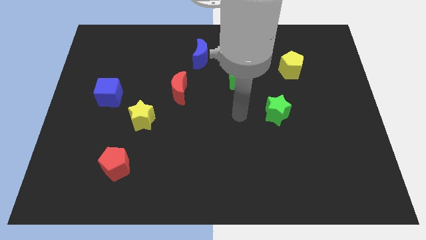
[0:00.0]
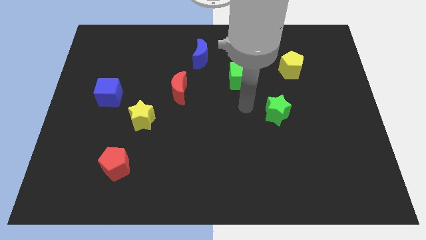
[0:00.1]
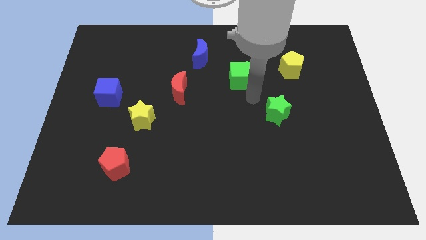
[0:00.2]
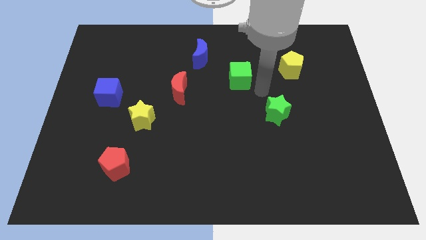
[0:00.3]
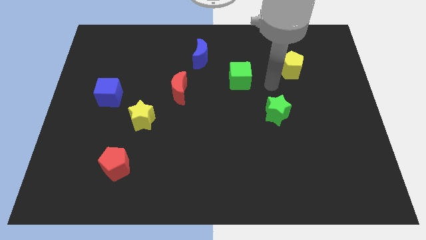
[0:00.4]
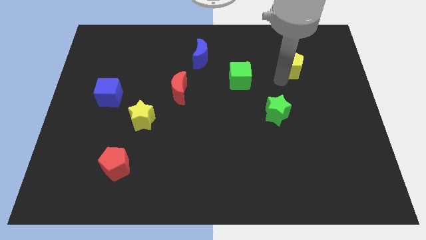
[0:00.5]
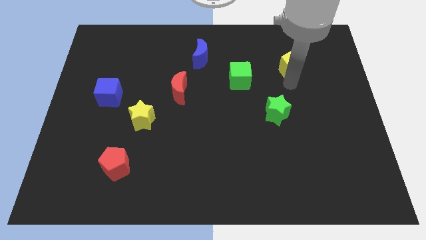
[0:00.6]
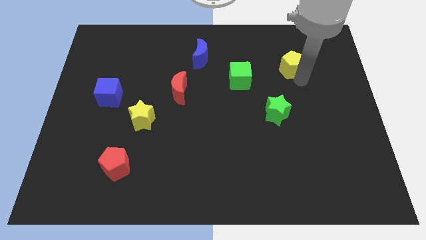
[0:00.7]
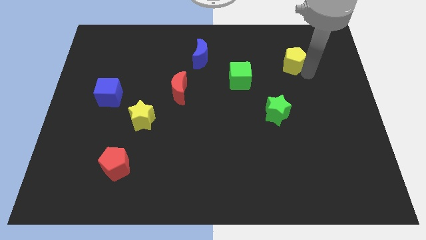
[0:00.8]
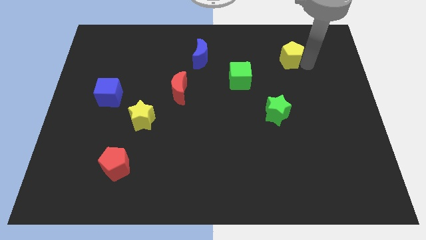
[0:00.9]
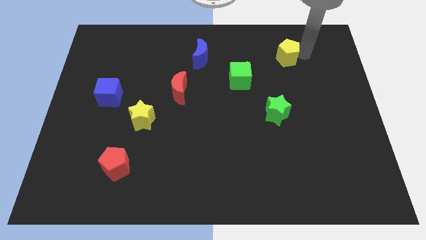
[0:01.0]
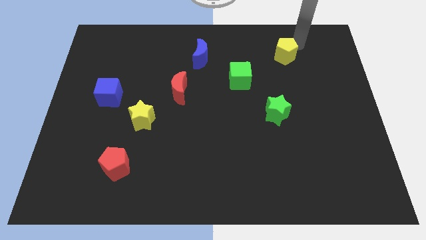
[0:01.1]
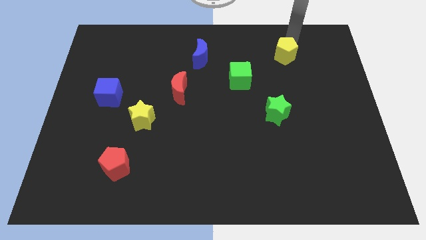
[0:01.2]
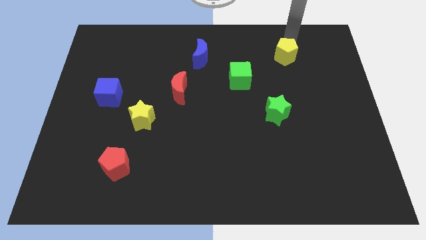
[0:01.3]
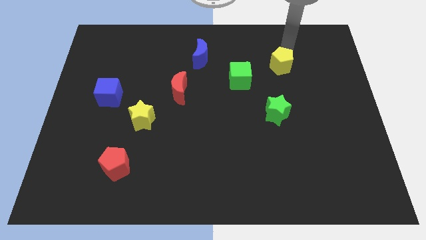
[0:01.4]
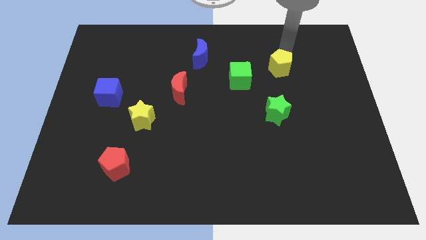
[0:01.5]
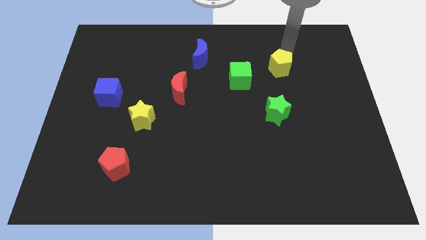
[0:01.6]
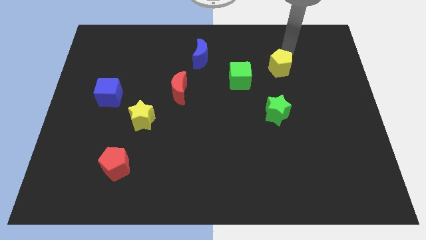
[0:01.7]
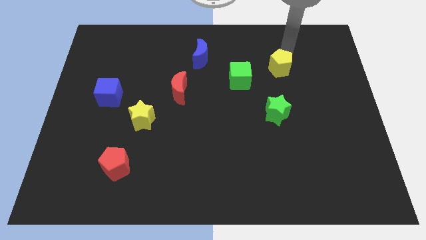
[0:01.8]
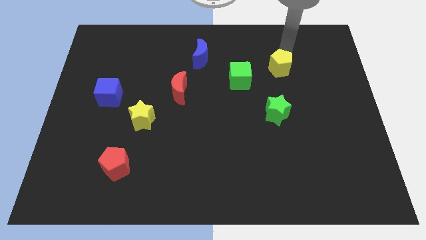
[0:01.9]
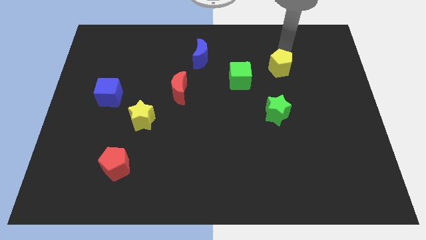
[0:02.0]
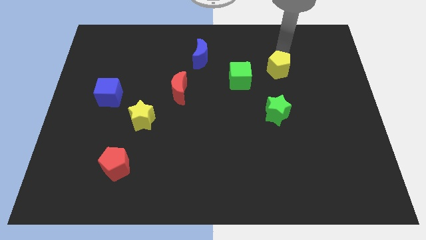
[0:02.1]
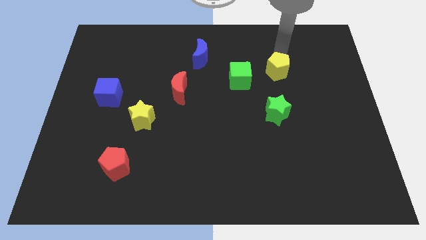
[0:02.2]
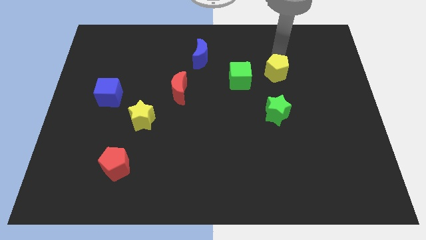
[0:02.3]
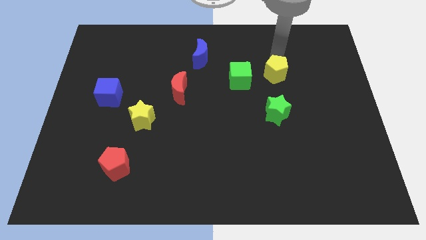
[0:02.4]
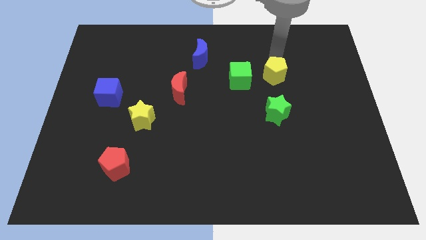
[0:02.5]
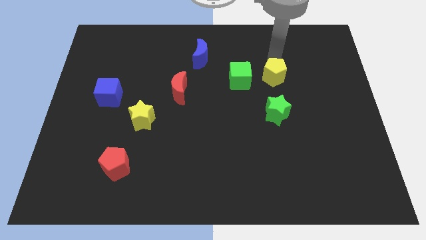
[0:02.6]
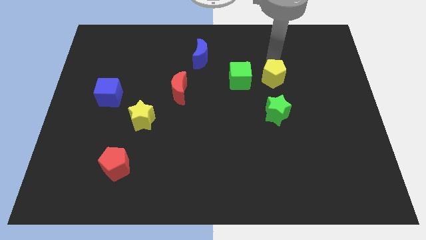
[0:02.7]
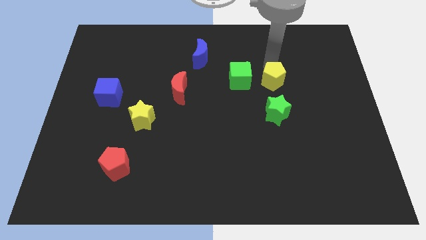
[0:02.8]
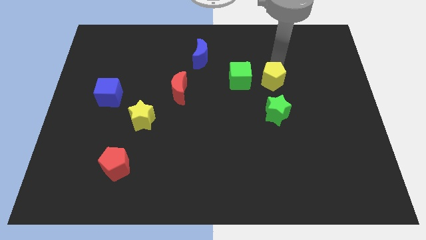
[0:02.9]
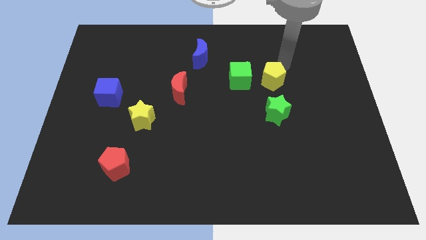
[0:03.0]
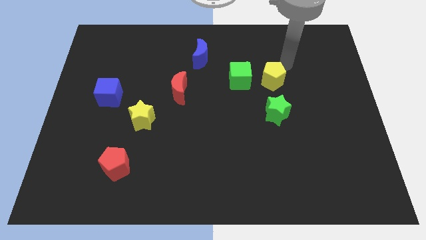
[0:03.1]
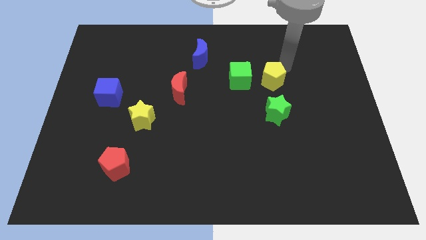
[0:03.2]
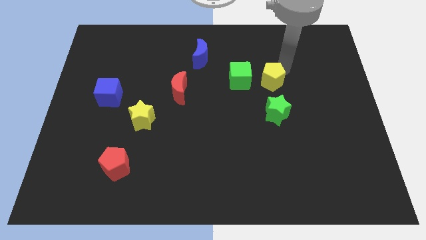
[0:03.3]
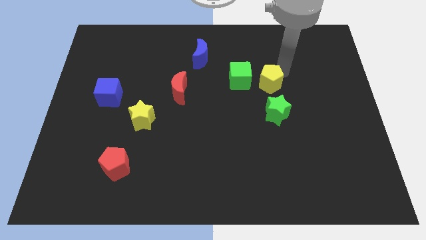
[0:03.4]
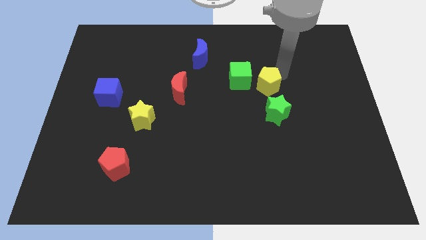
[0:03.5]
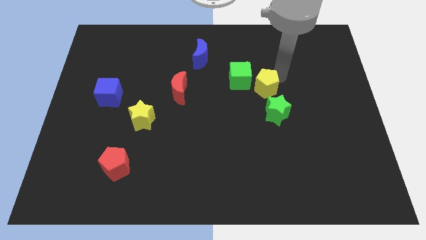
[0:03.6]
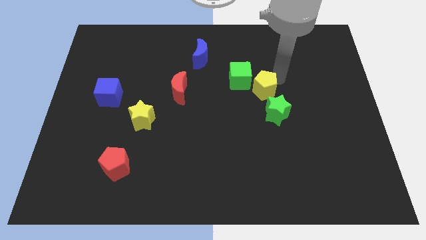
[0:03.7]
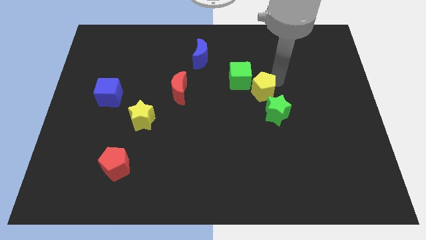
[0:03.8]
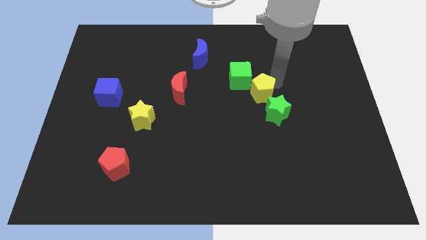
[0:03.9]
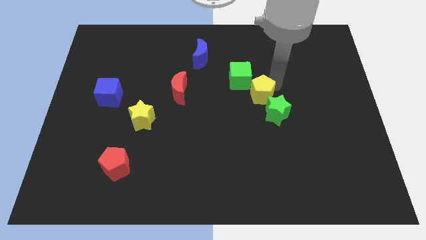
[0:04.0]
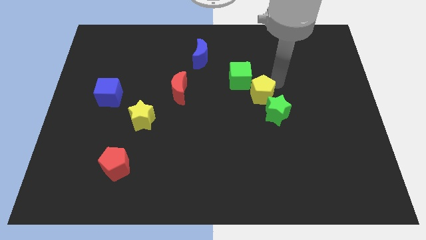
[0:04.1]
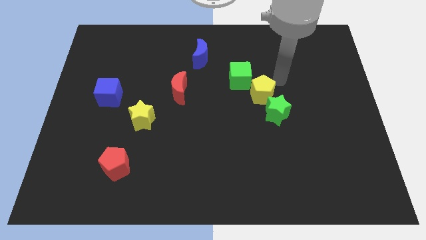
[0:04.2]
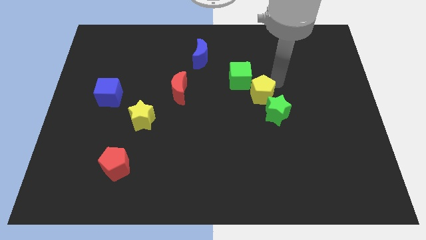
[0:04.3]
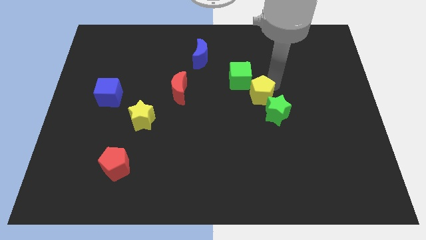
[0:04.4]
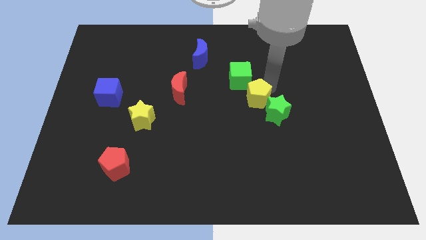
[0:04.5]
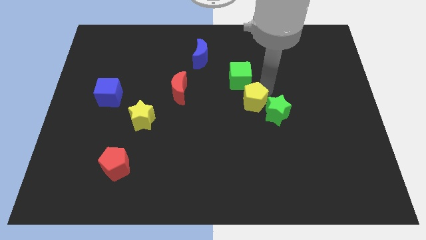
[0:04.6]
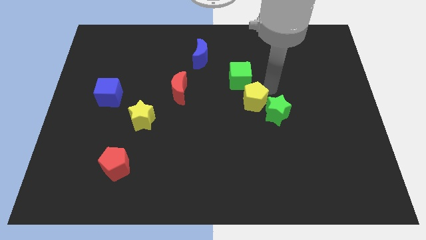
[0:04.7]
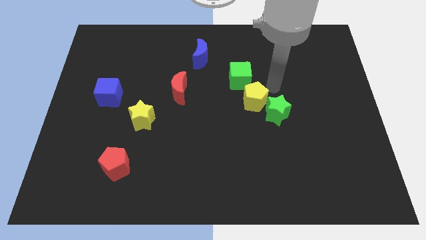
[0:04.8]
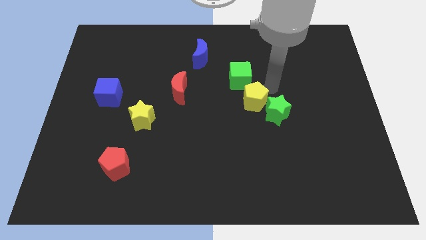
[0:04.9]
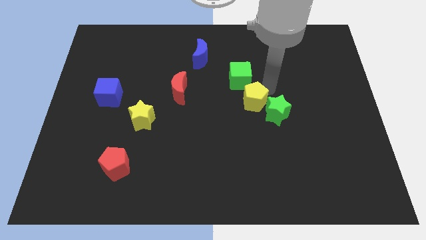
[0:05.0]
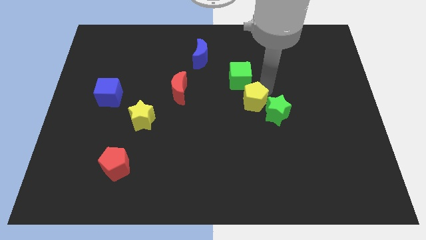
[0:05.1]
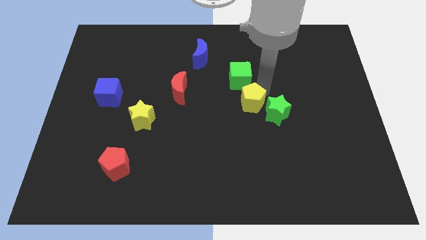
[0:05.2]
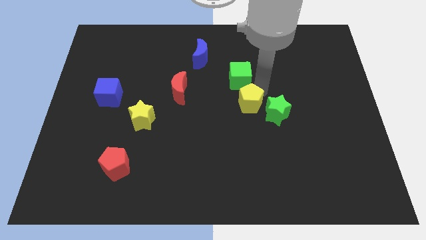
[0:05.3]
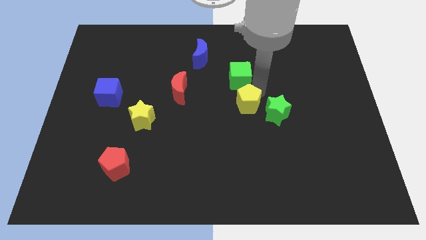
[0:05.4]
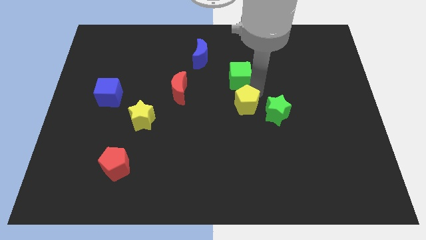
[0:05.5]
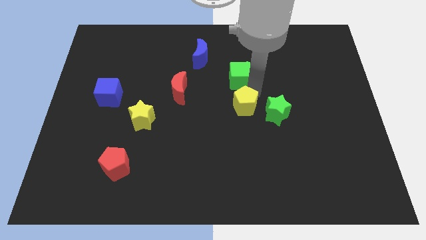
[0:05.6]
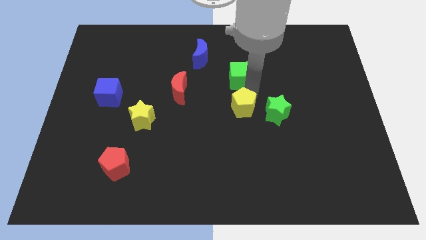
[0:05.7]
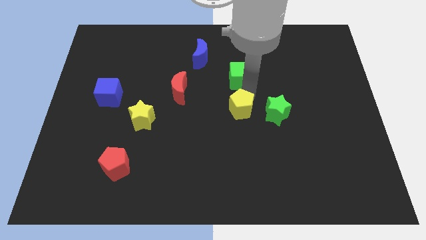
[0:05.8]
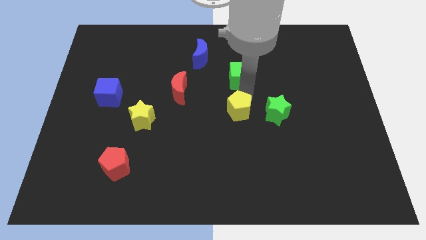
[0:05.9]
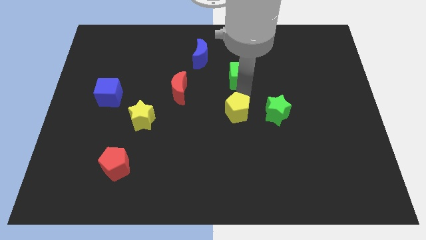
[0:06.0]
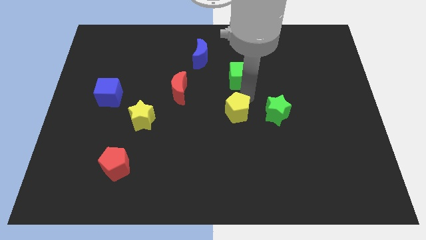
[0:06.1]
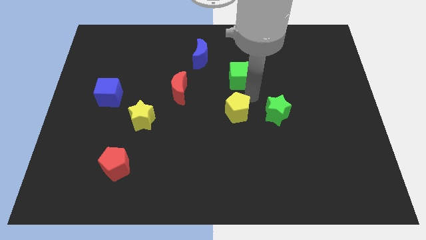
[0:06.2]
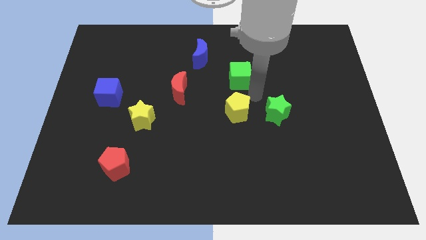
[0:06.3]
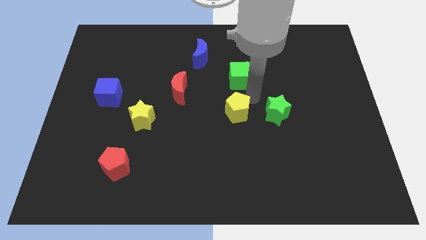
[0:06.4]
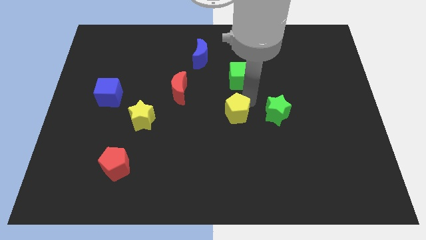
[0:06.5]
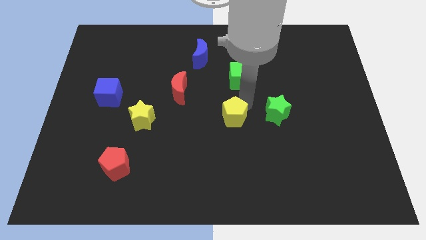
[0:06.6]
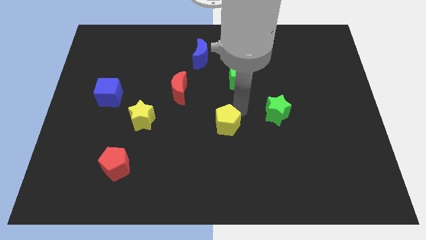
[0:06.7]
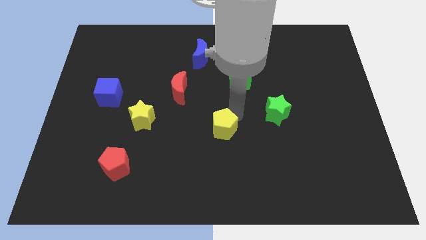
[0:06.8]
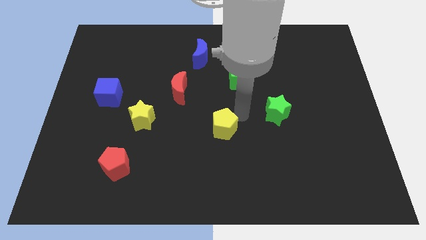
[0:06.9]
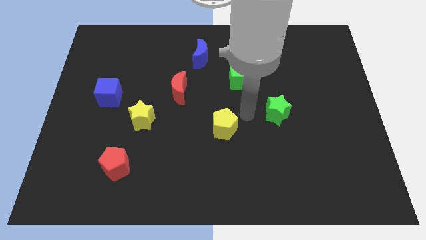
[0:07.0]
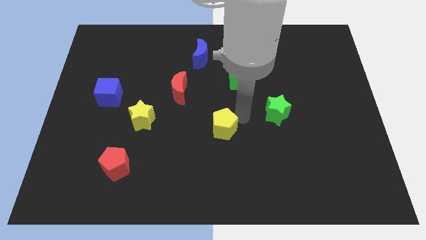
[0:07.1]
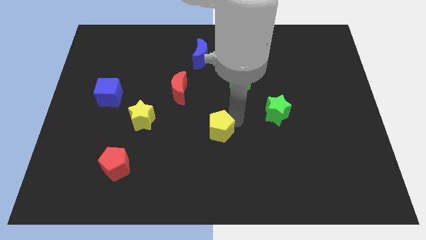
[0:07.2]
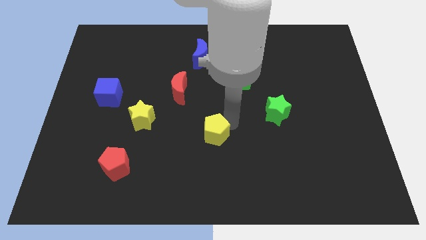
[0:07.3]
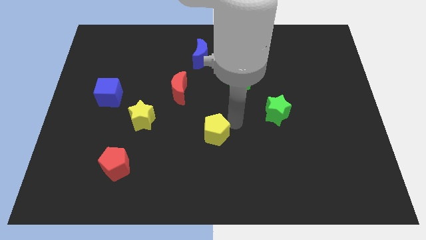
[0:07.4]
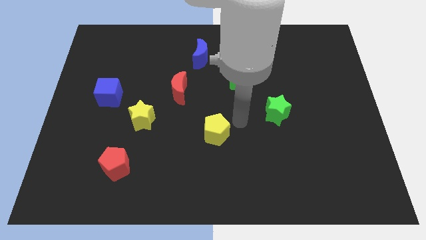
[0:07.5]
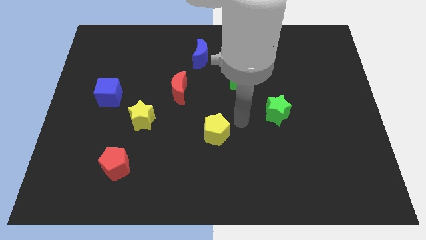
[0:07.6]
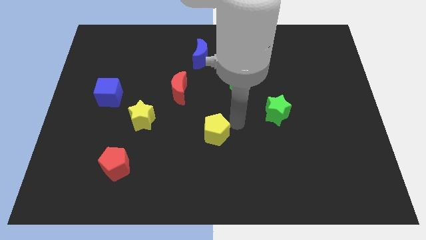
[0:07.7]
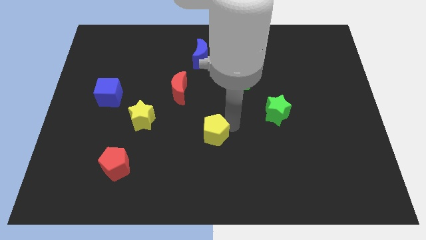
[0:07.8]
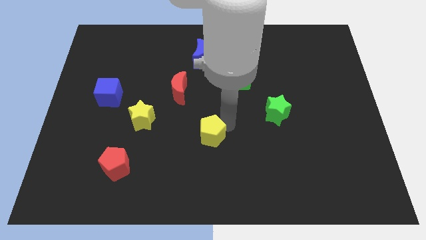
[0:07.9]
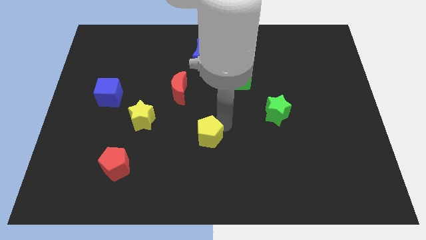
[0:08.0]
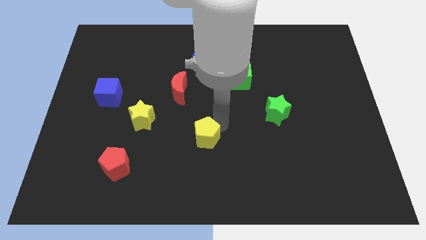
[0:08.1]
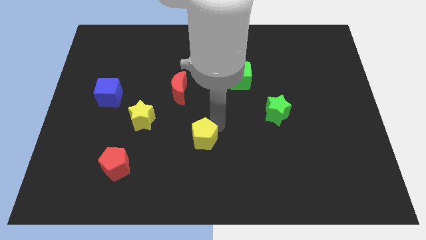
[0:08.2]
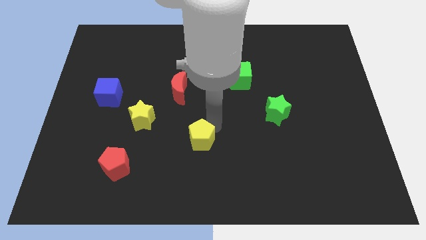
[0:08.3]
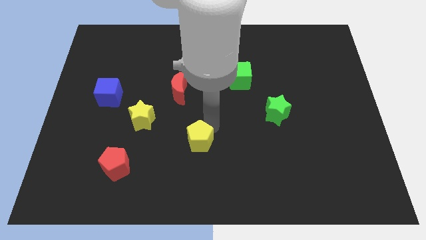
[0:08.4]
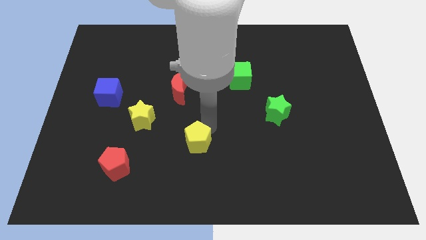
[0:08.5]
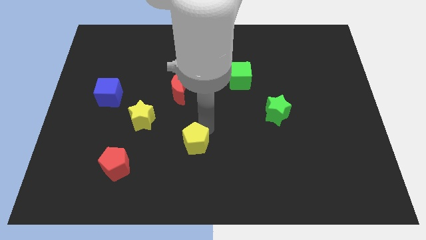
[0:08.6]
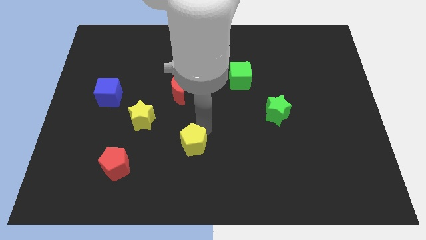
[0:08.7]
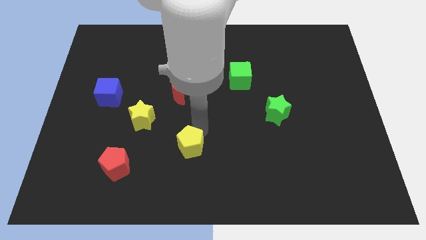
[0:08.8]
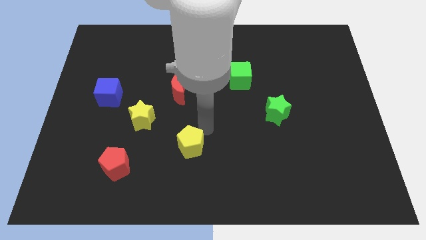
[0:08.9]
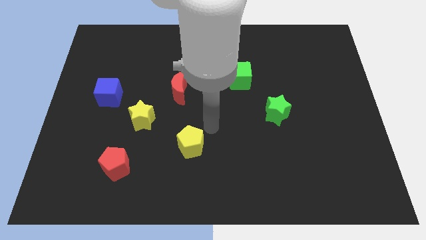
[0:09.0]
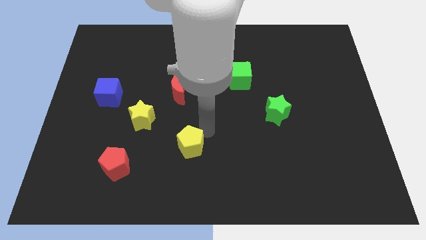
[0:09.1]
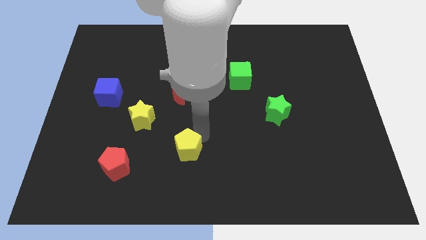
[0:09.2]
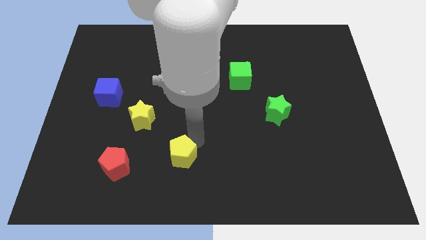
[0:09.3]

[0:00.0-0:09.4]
move the yellow pentagon to the right of the red pentagon
